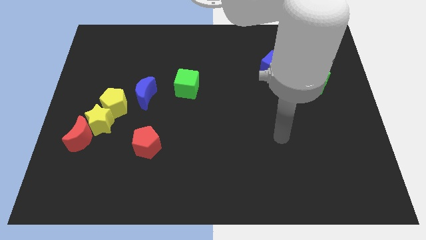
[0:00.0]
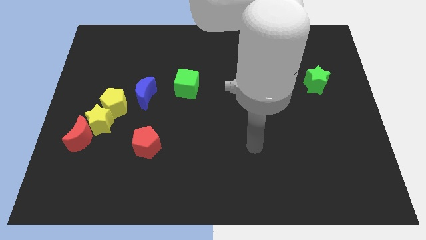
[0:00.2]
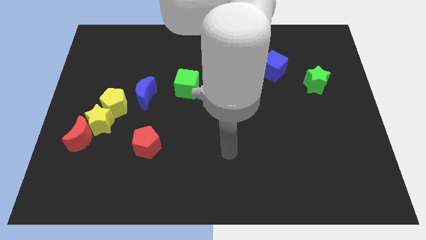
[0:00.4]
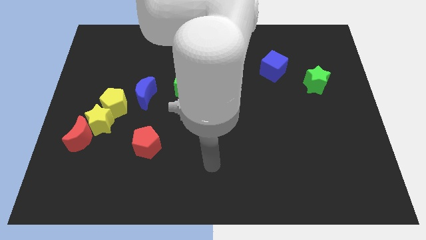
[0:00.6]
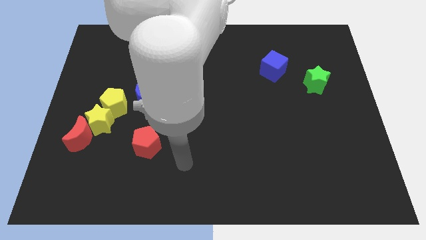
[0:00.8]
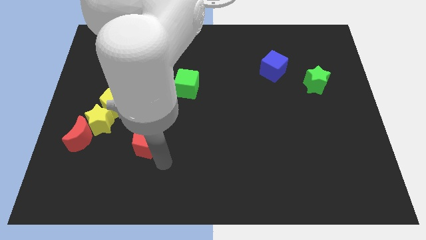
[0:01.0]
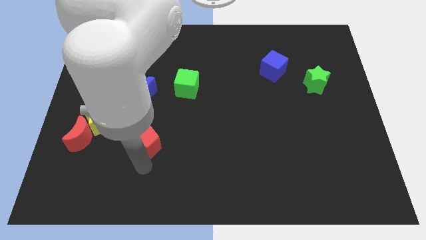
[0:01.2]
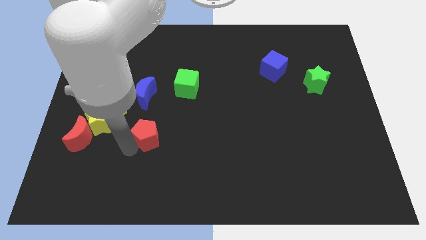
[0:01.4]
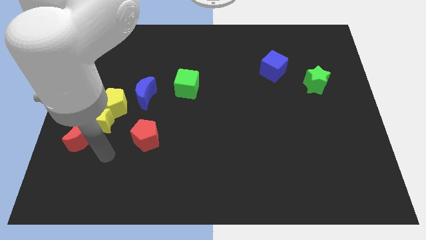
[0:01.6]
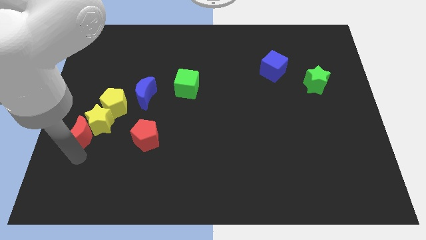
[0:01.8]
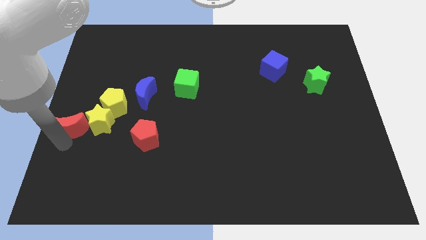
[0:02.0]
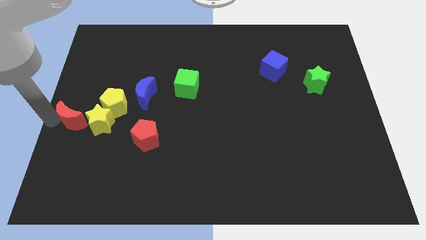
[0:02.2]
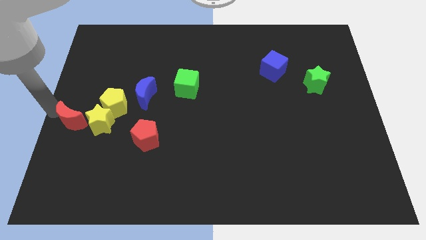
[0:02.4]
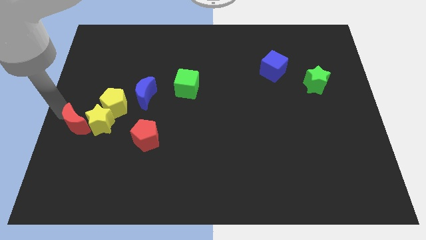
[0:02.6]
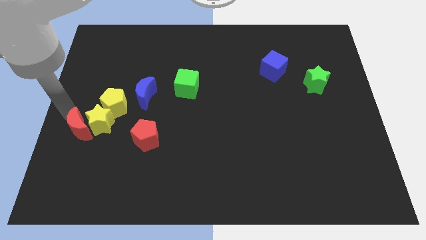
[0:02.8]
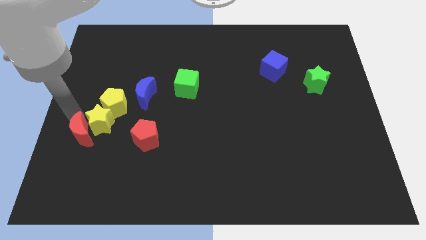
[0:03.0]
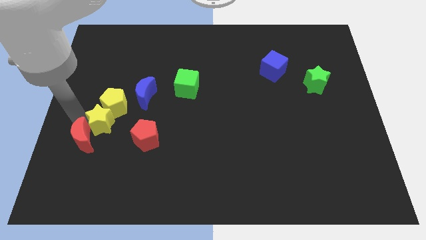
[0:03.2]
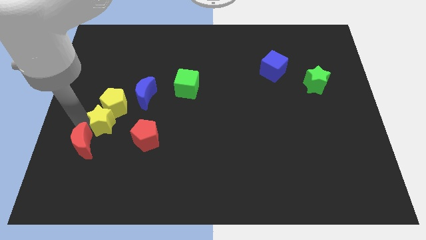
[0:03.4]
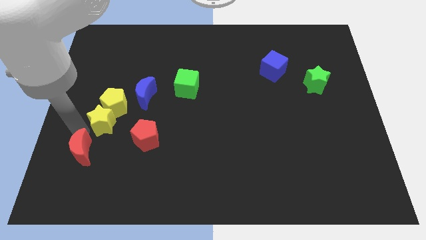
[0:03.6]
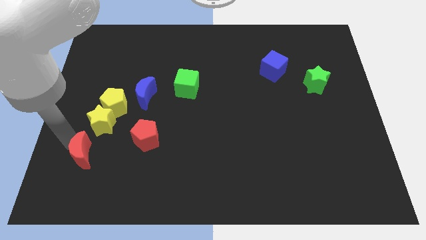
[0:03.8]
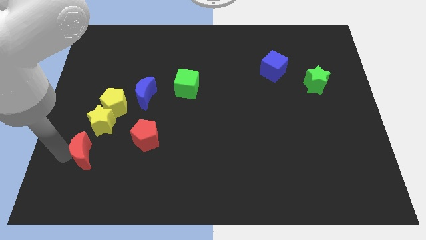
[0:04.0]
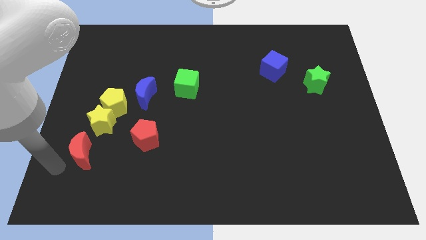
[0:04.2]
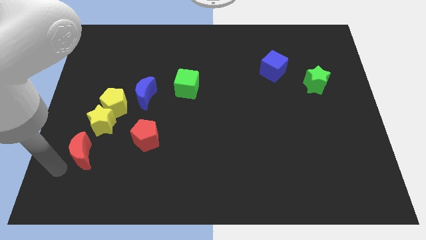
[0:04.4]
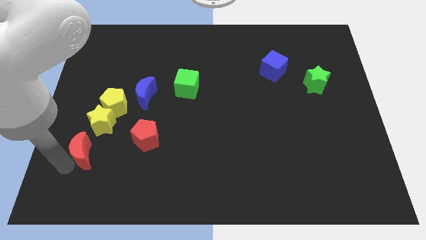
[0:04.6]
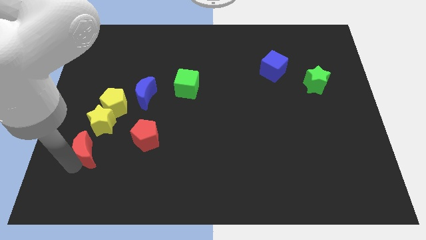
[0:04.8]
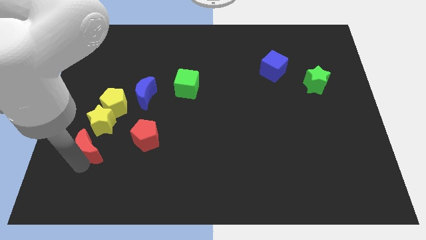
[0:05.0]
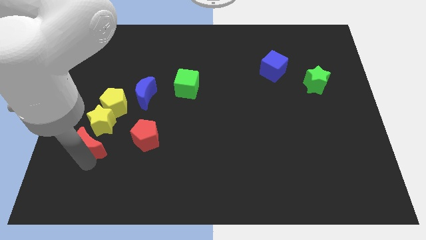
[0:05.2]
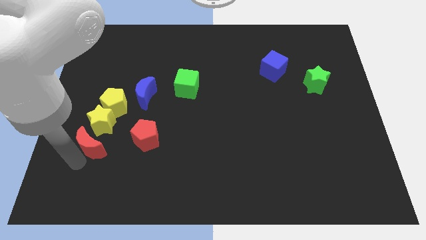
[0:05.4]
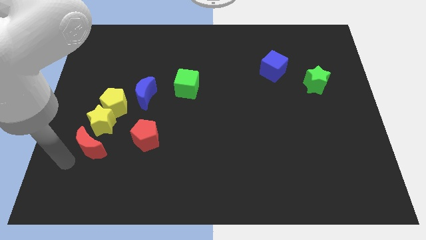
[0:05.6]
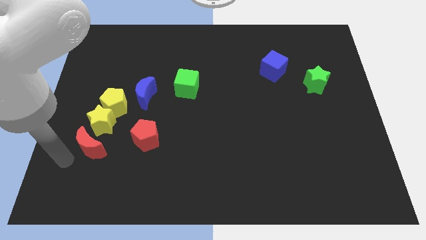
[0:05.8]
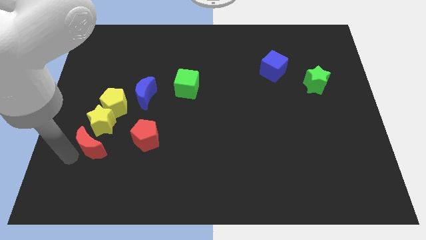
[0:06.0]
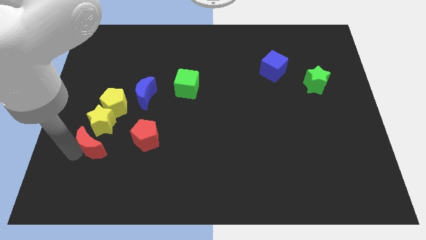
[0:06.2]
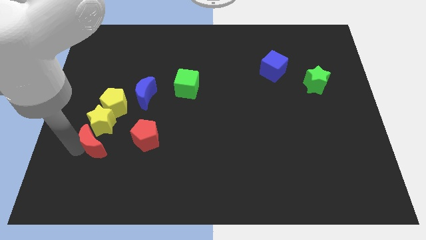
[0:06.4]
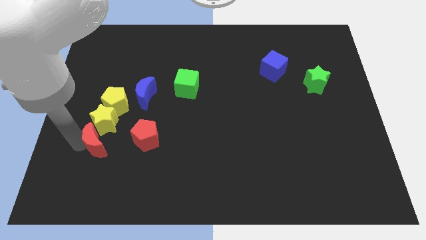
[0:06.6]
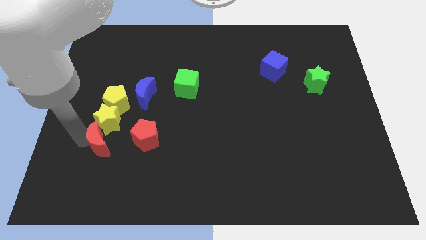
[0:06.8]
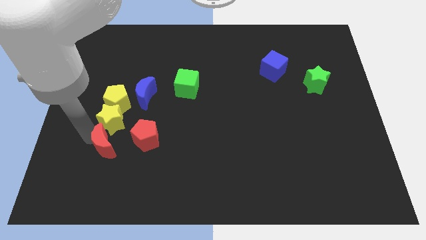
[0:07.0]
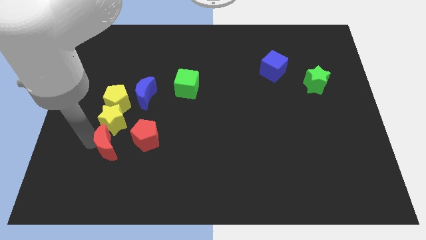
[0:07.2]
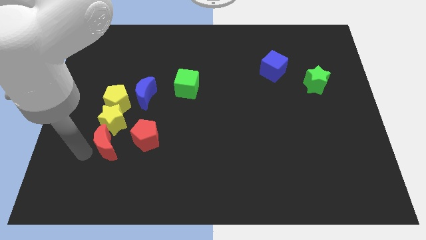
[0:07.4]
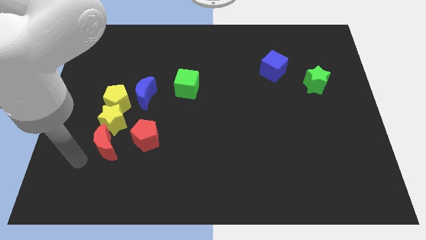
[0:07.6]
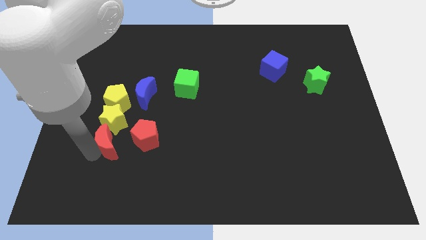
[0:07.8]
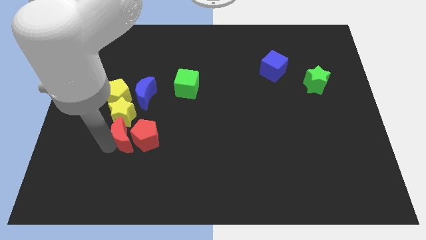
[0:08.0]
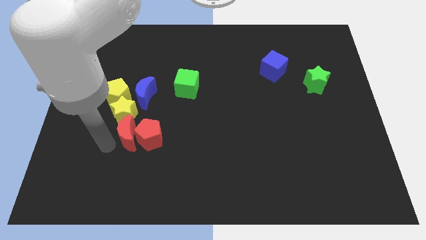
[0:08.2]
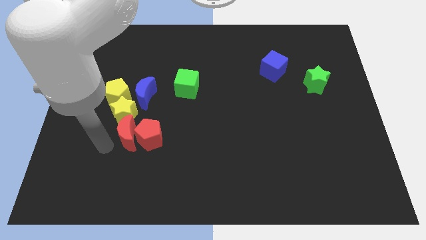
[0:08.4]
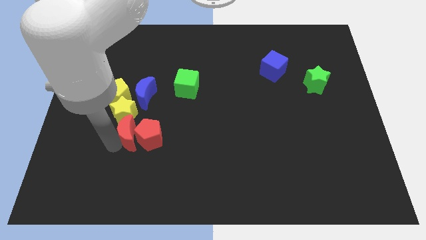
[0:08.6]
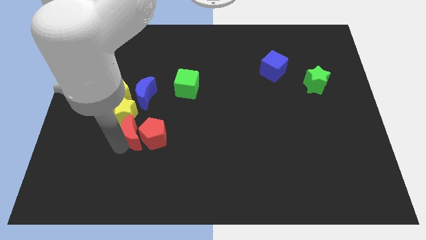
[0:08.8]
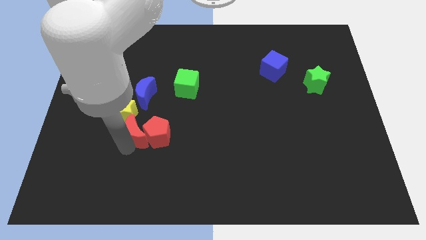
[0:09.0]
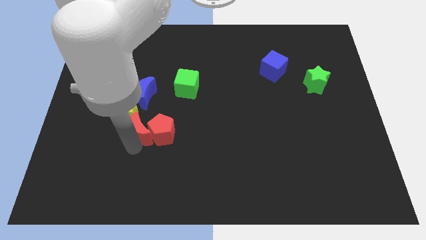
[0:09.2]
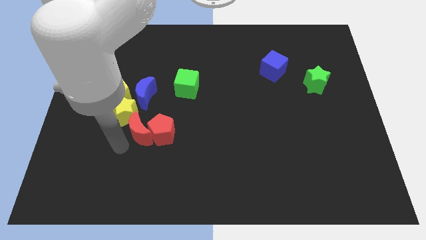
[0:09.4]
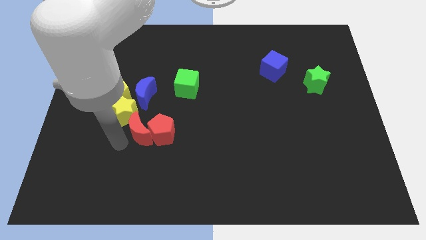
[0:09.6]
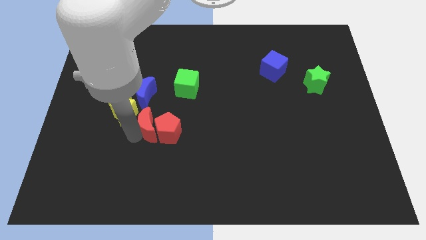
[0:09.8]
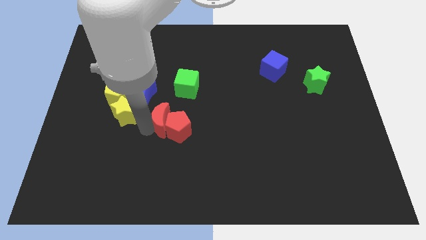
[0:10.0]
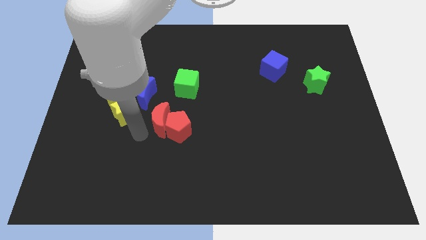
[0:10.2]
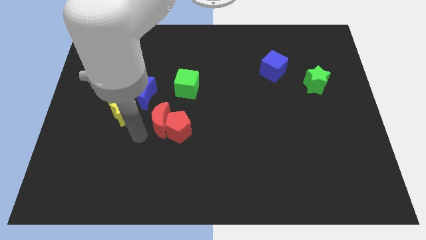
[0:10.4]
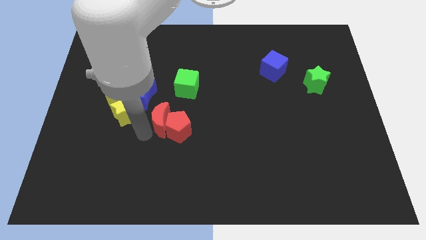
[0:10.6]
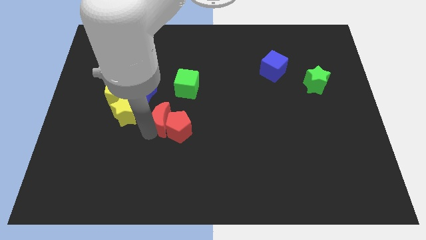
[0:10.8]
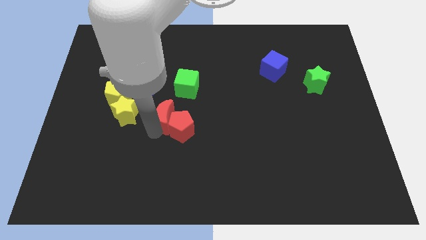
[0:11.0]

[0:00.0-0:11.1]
move the red moon to the center
